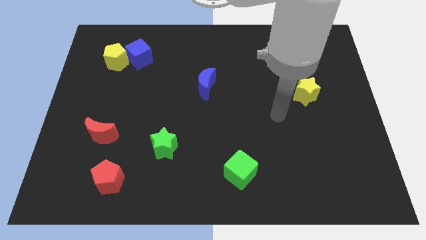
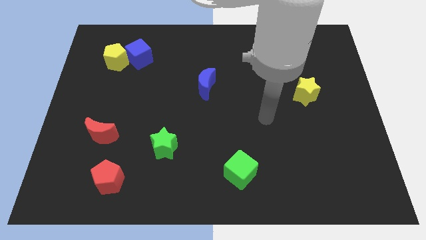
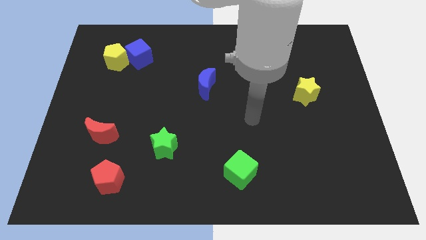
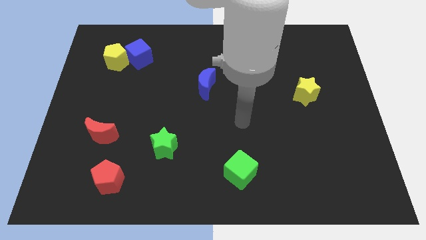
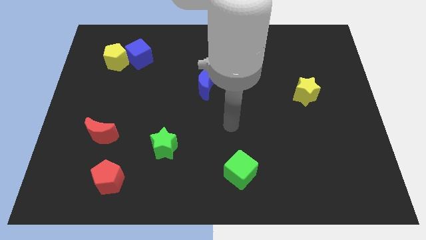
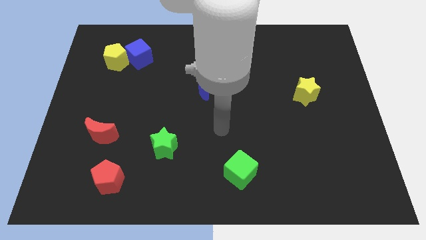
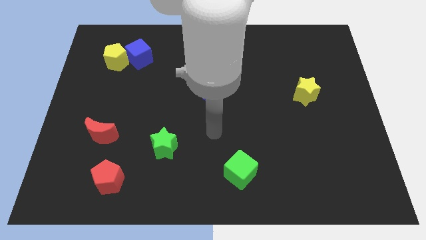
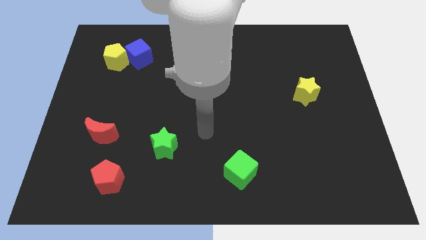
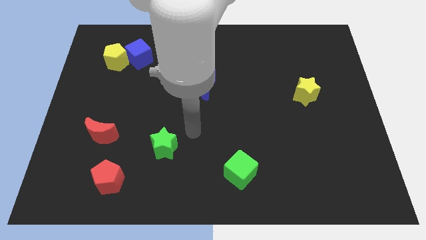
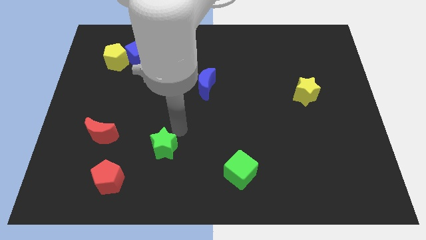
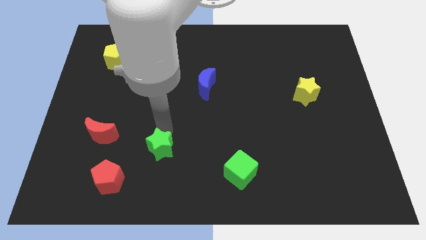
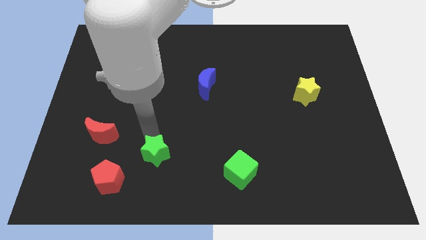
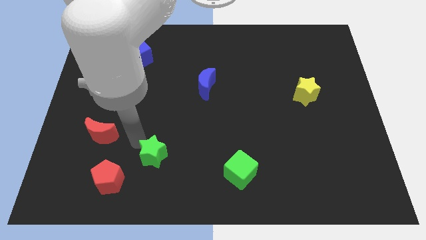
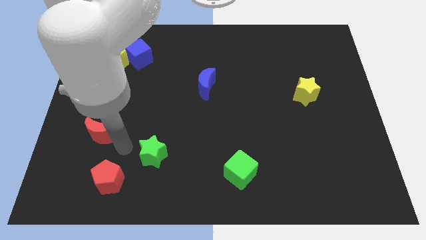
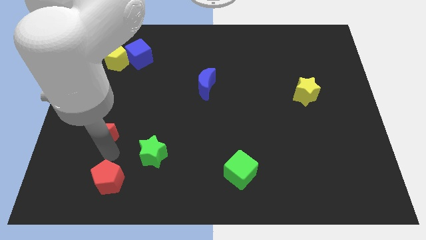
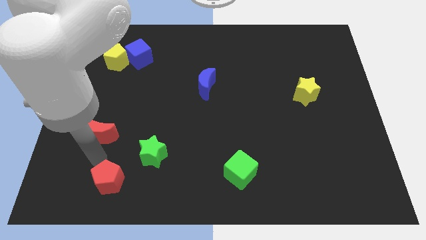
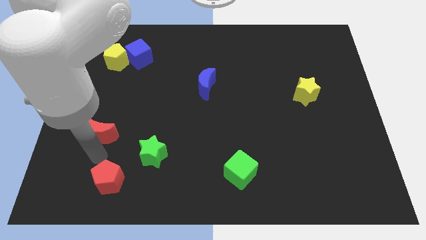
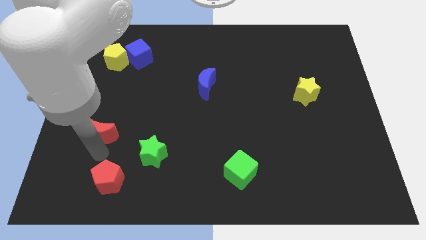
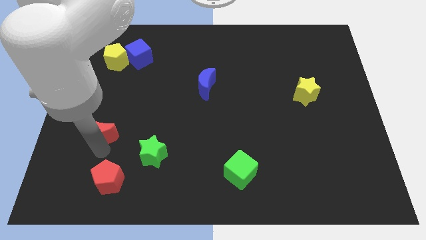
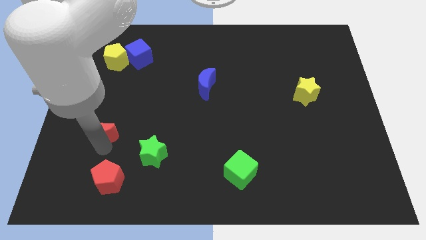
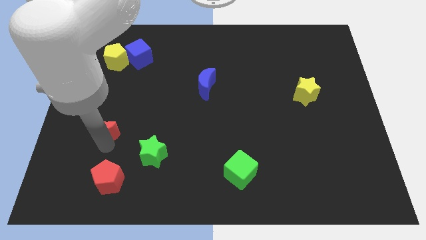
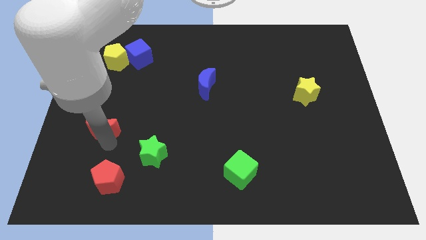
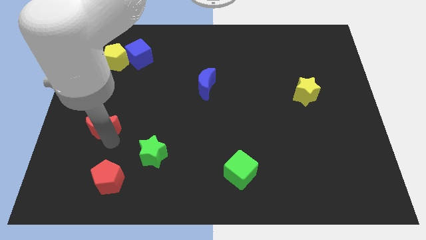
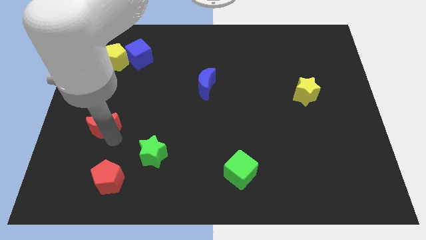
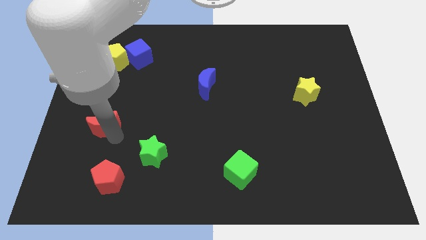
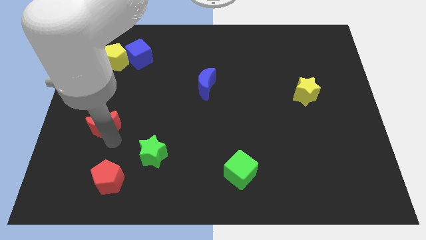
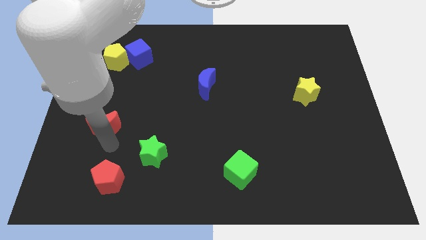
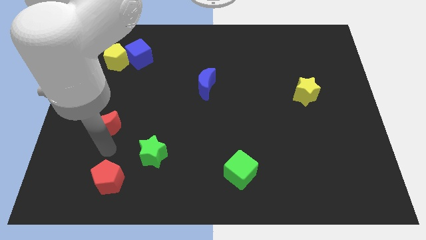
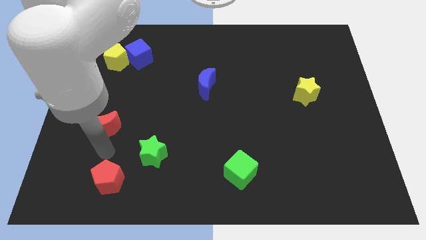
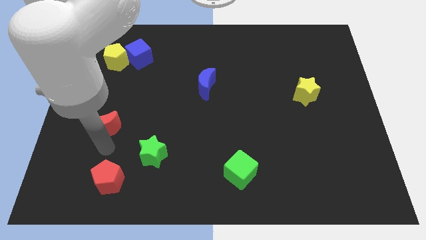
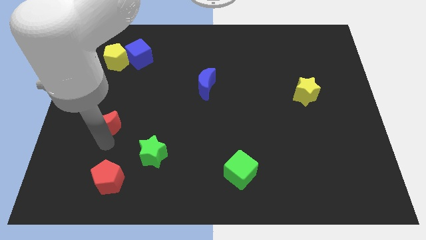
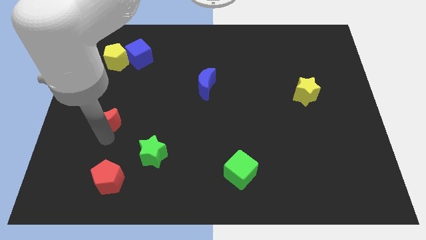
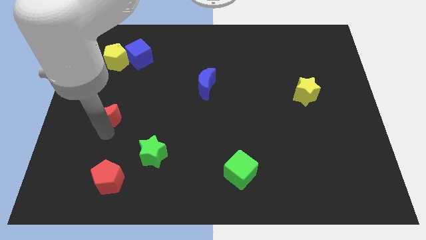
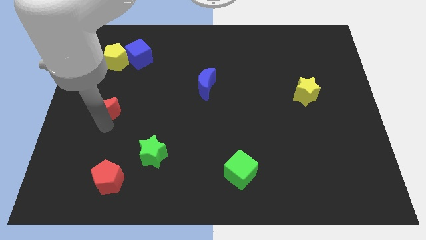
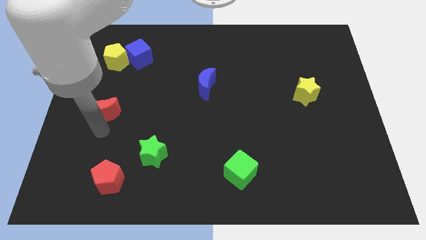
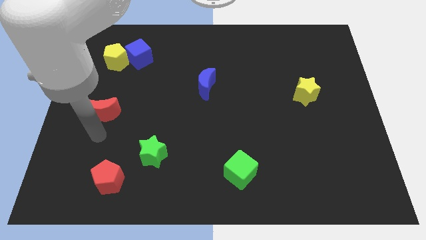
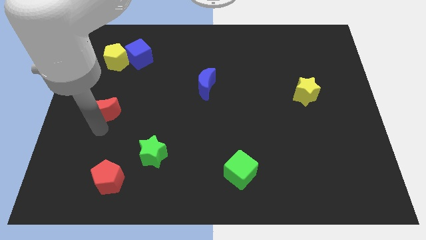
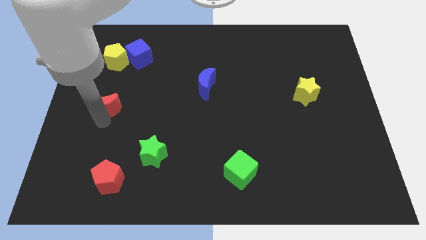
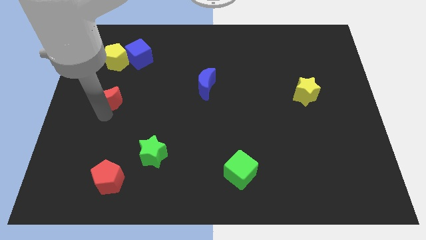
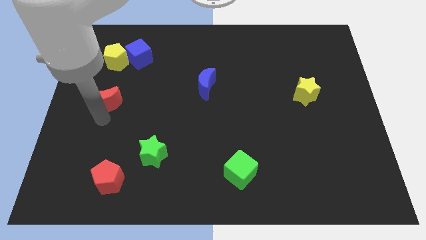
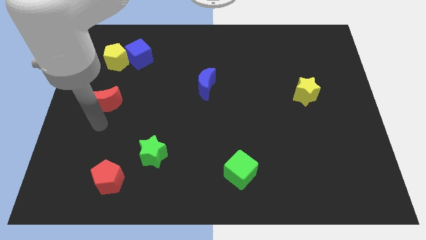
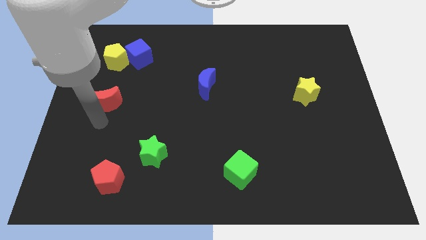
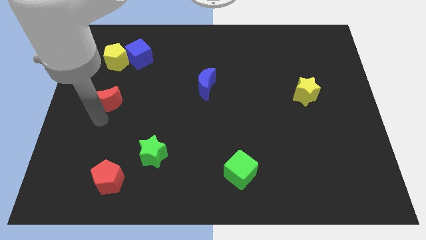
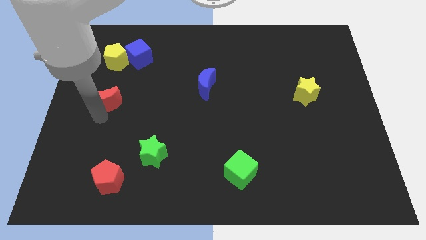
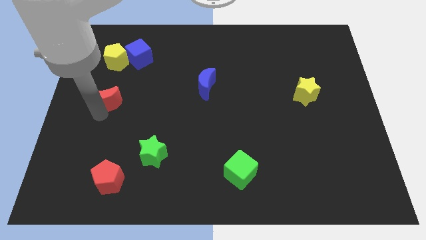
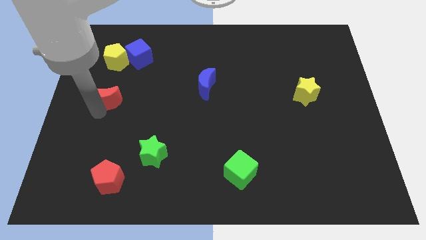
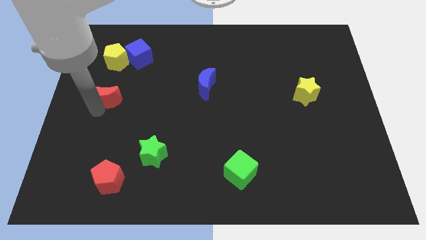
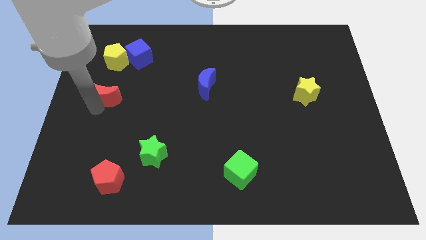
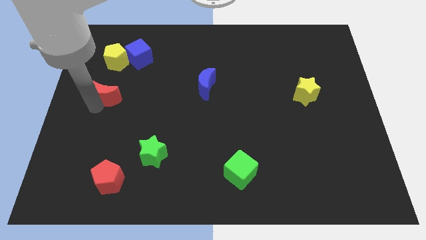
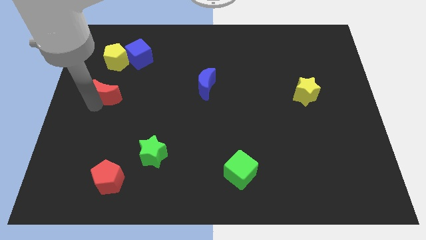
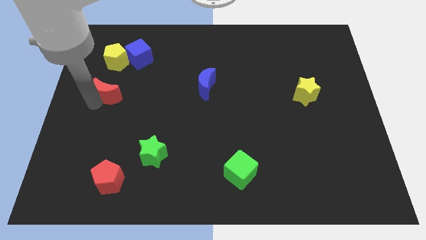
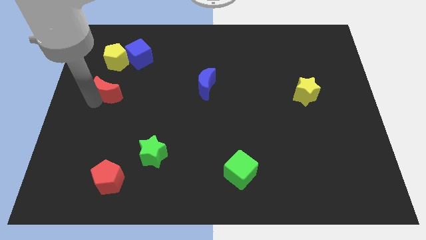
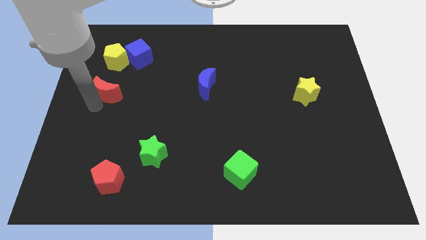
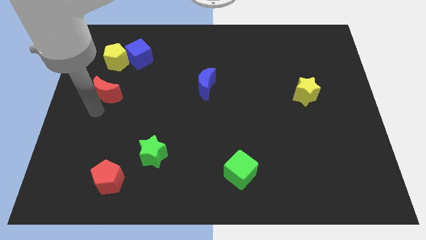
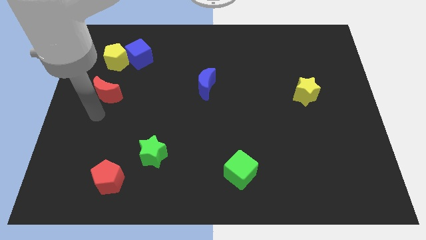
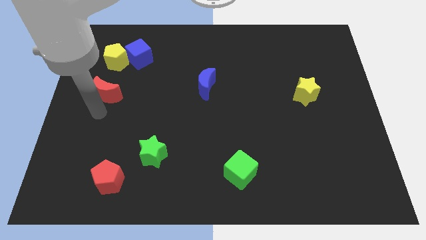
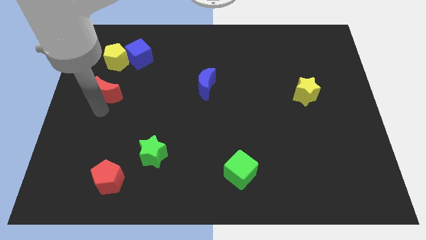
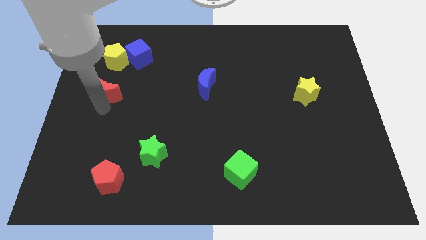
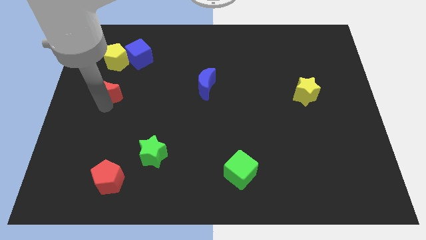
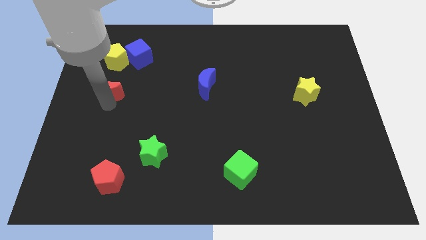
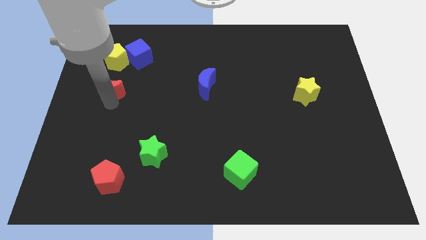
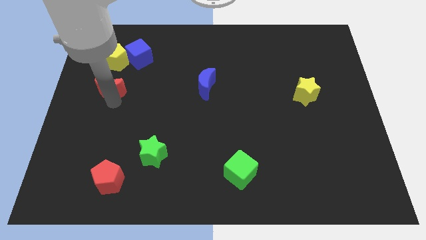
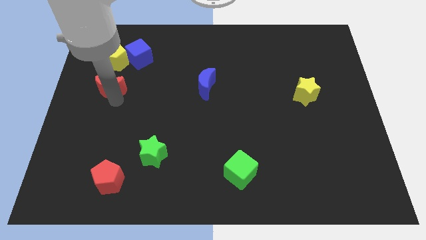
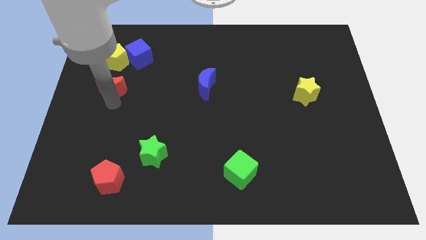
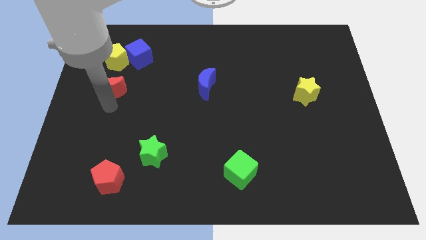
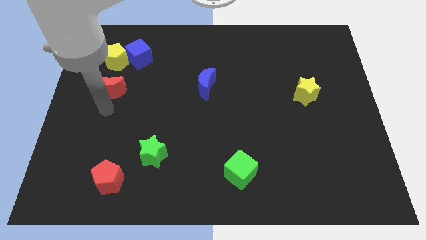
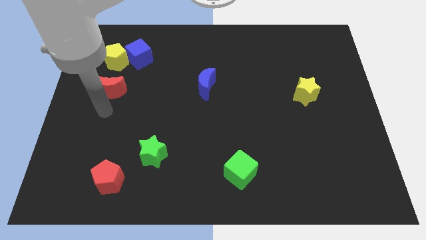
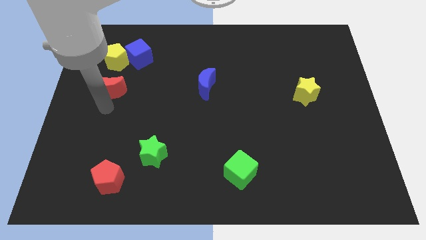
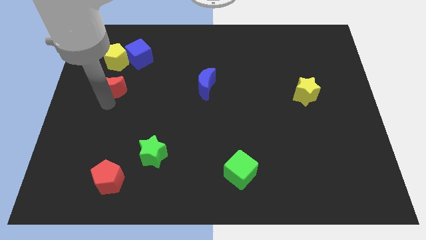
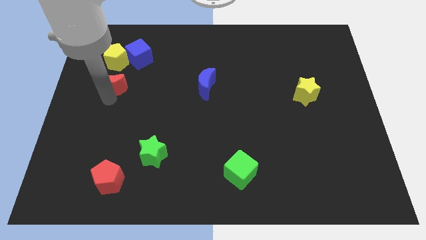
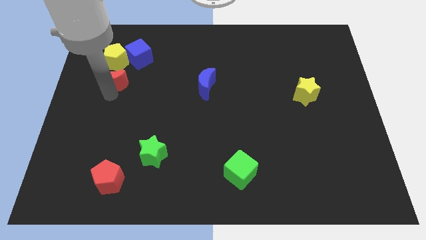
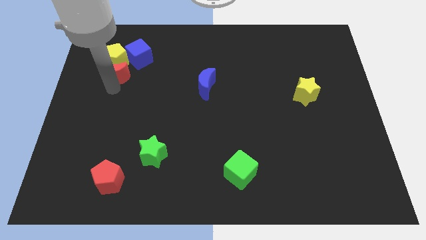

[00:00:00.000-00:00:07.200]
slide the red moon close to the yellow pentagon

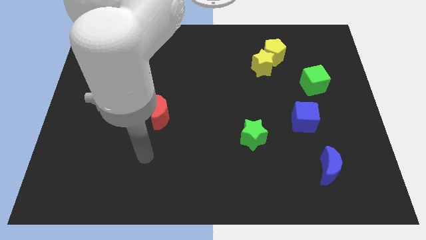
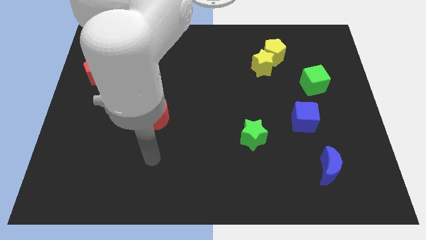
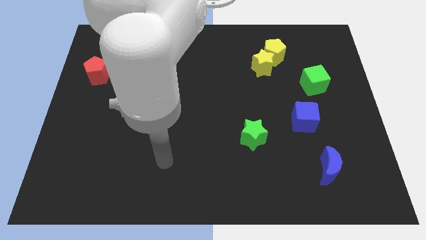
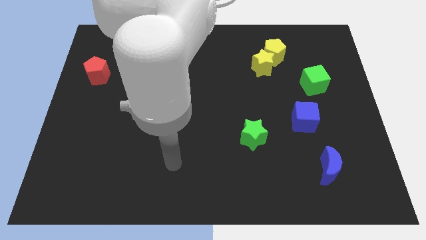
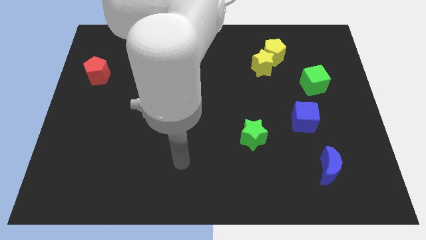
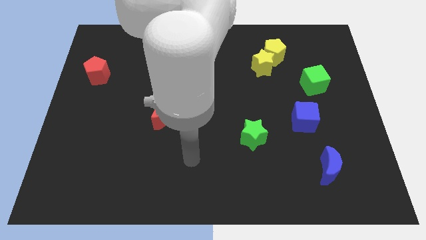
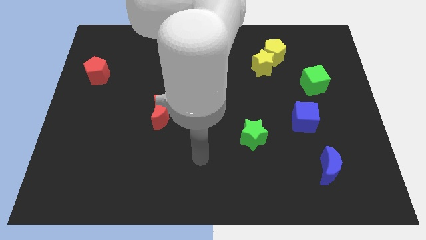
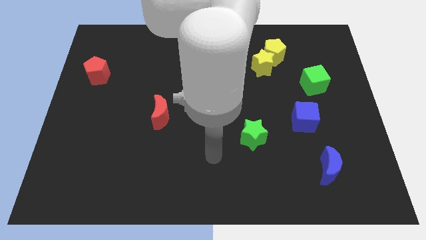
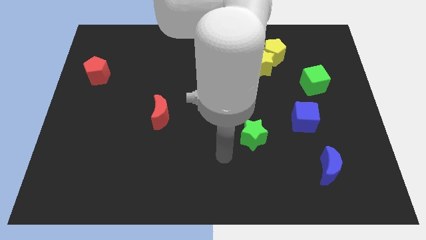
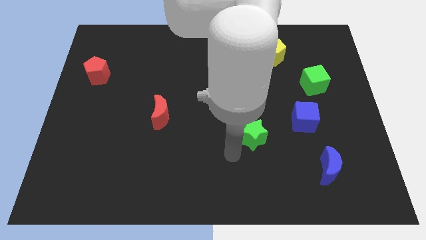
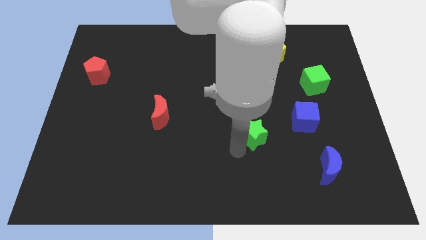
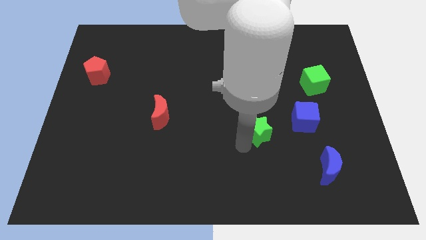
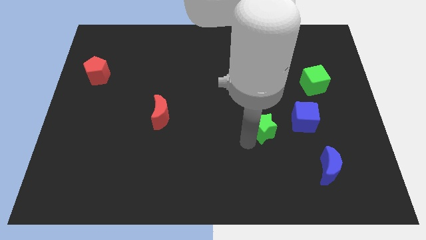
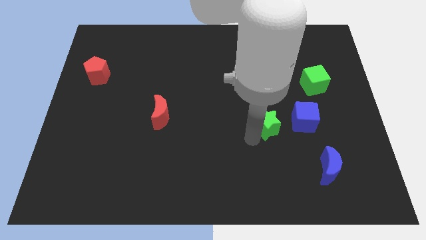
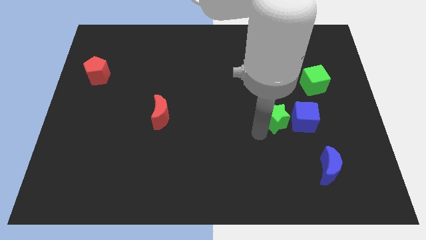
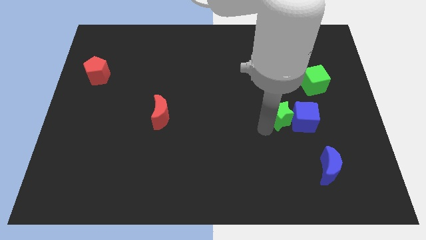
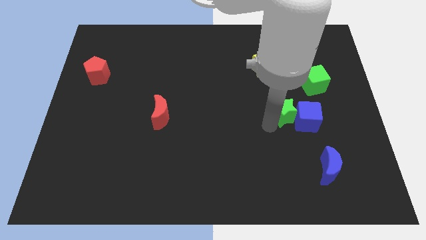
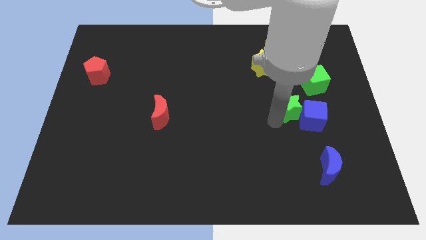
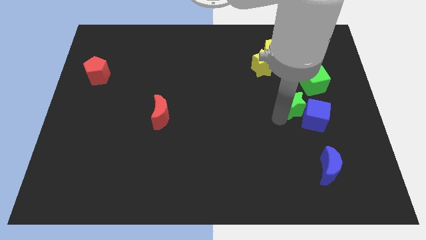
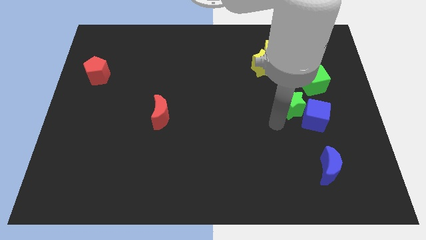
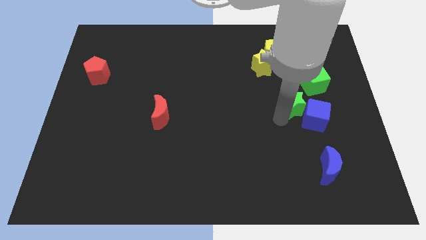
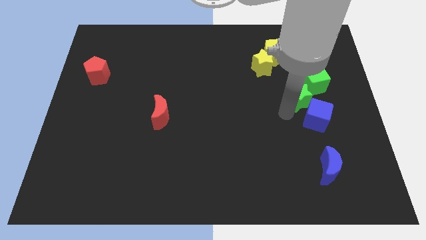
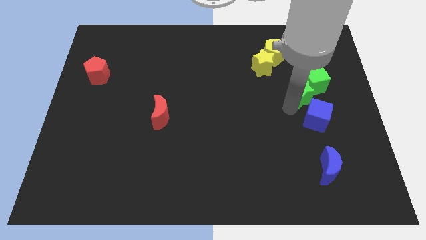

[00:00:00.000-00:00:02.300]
slide the green star to the green cube
